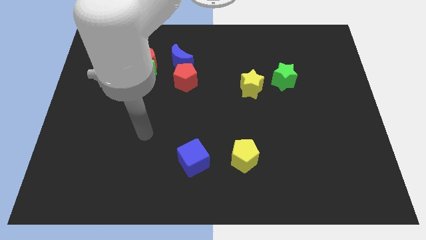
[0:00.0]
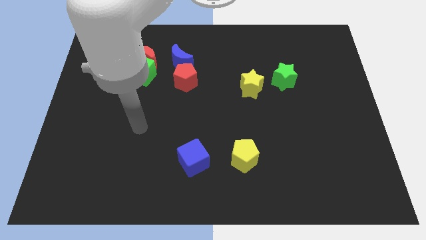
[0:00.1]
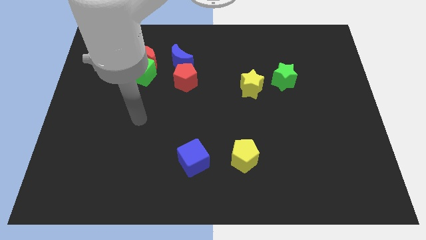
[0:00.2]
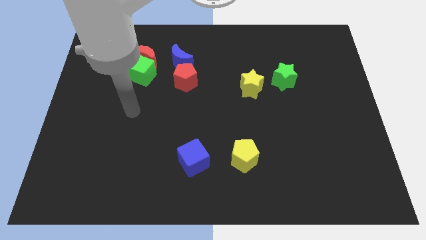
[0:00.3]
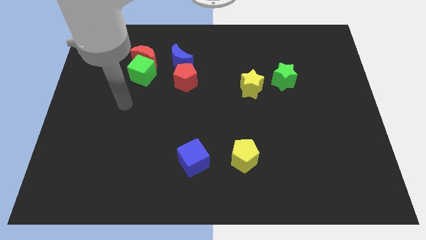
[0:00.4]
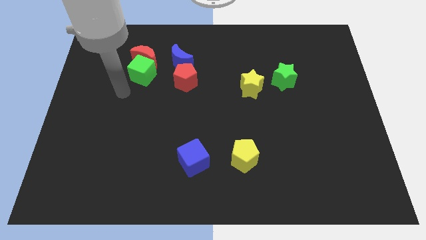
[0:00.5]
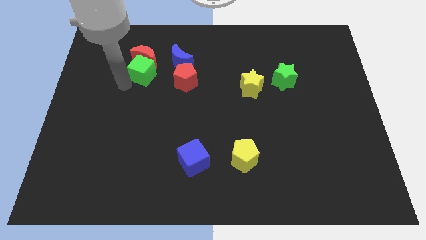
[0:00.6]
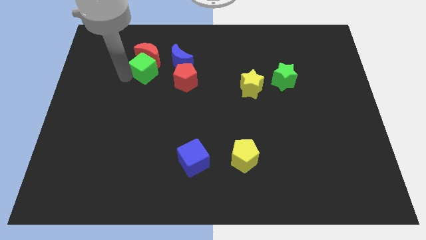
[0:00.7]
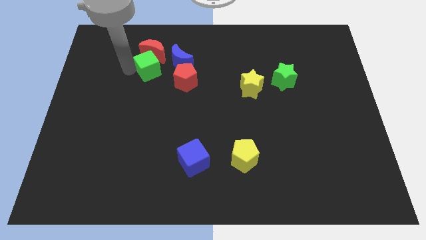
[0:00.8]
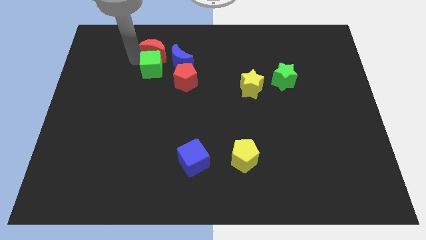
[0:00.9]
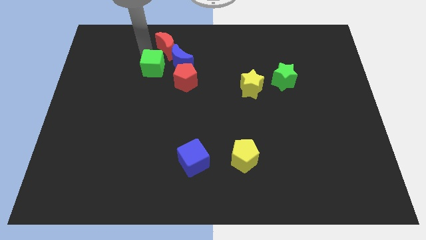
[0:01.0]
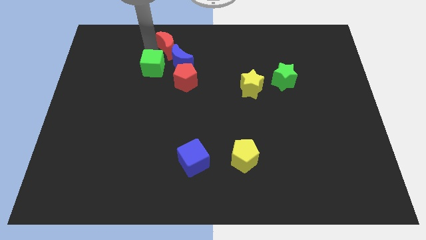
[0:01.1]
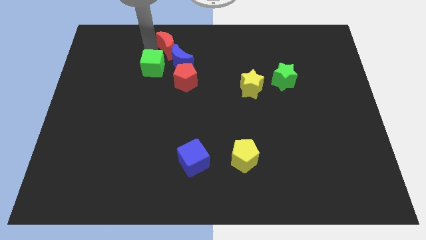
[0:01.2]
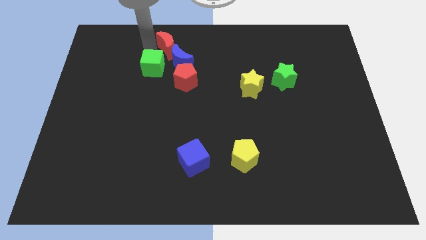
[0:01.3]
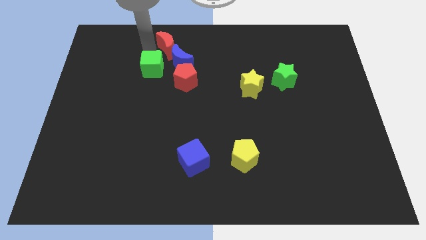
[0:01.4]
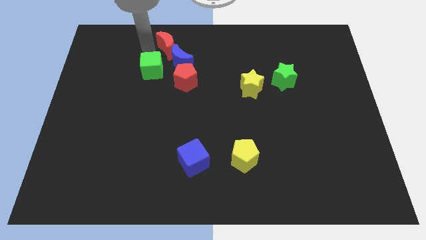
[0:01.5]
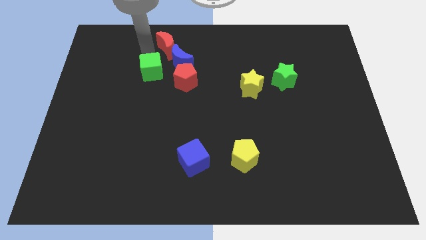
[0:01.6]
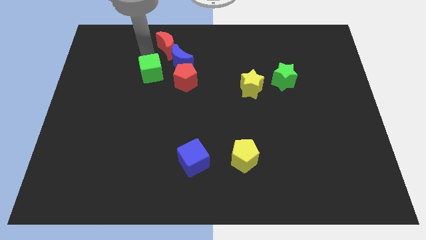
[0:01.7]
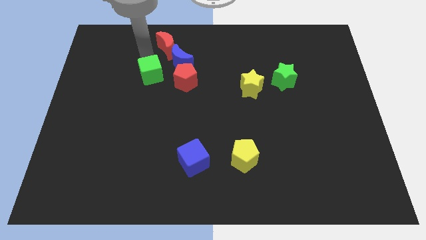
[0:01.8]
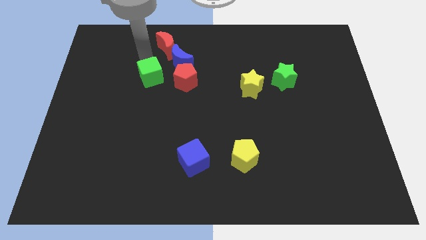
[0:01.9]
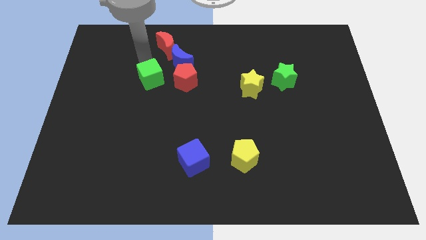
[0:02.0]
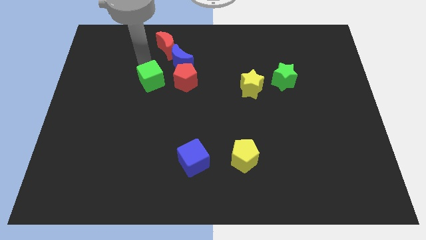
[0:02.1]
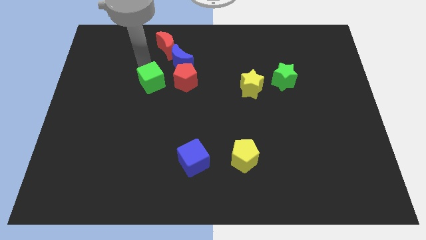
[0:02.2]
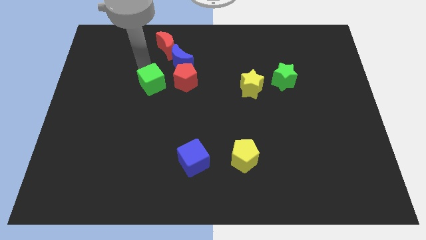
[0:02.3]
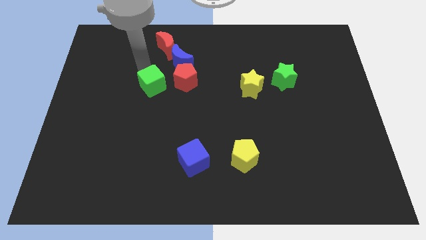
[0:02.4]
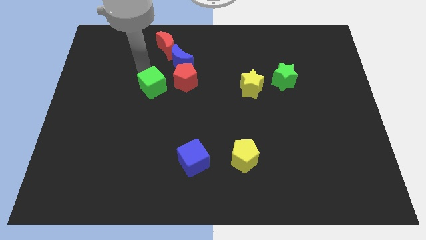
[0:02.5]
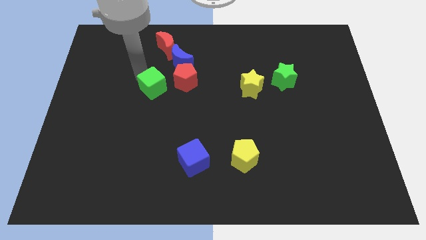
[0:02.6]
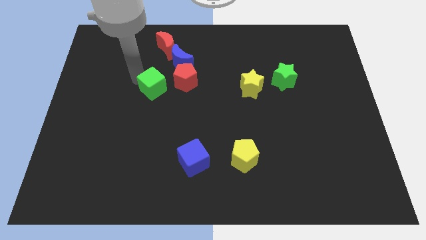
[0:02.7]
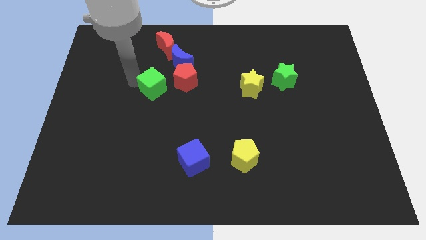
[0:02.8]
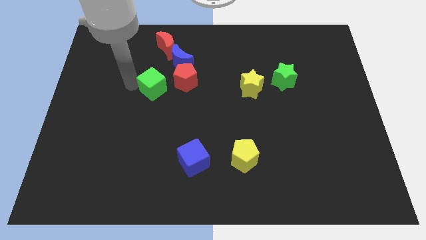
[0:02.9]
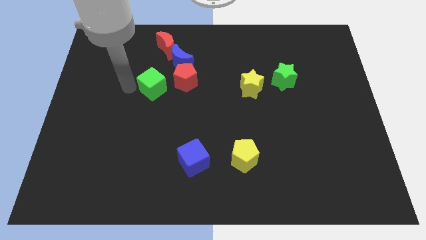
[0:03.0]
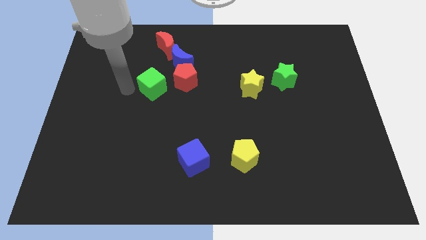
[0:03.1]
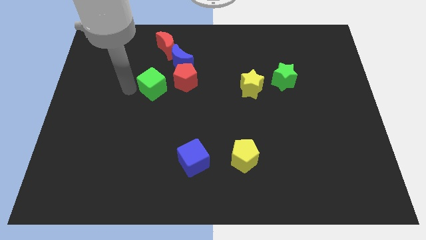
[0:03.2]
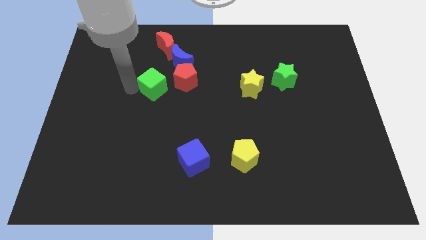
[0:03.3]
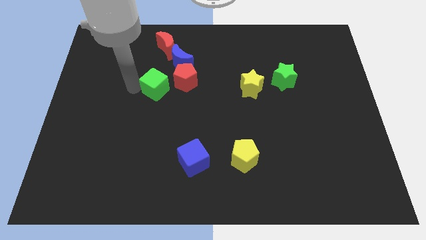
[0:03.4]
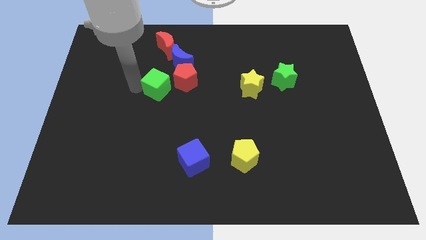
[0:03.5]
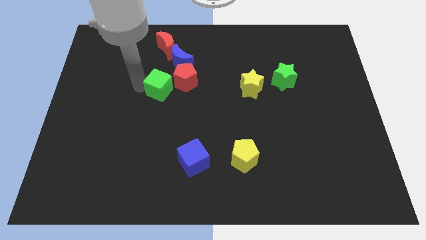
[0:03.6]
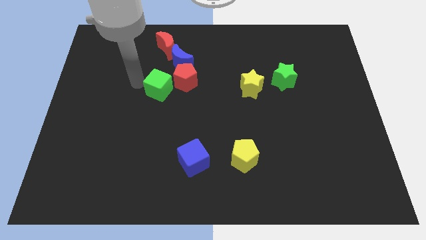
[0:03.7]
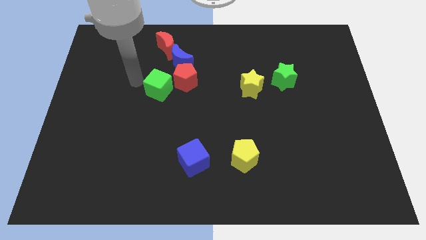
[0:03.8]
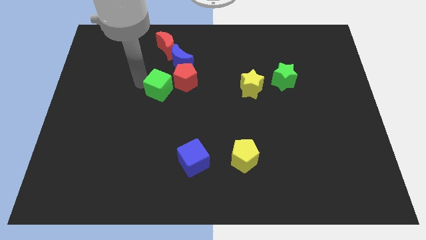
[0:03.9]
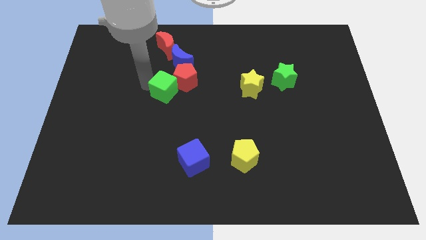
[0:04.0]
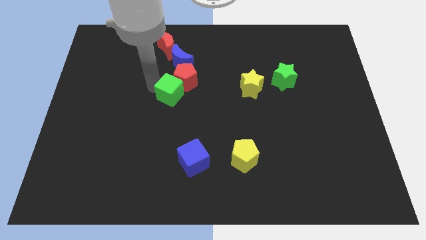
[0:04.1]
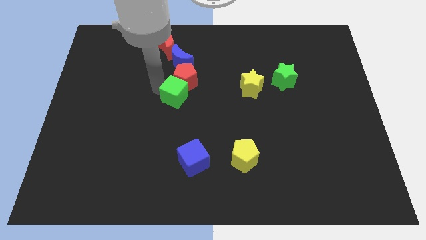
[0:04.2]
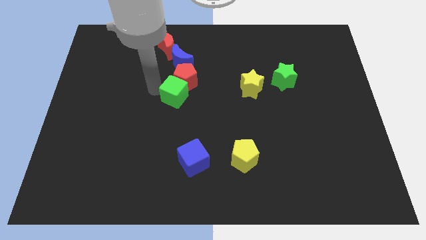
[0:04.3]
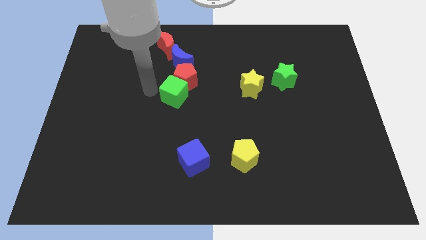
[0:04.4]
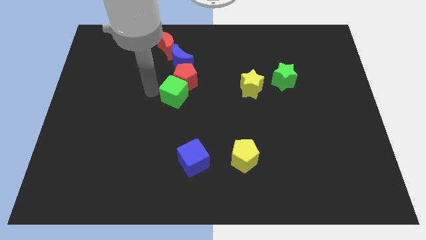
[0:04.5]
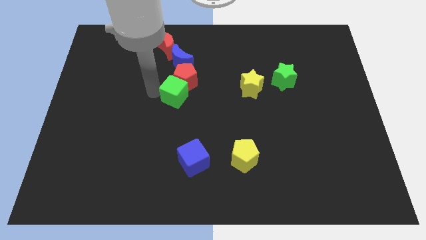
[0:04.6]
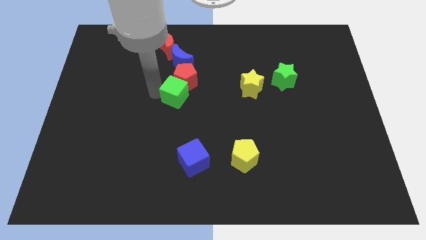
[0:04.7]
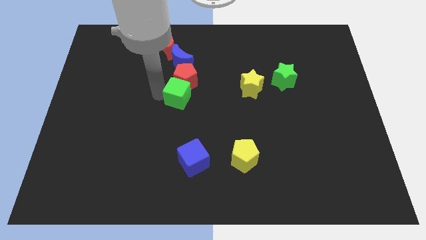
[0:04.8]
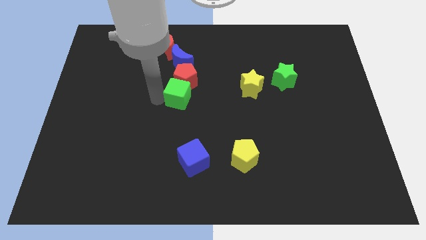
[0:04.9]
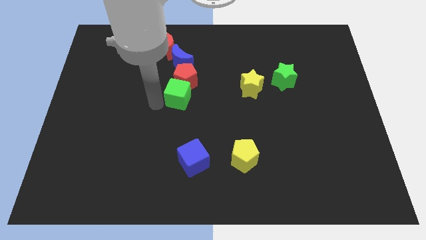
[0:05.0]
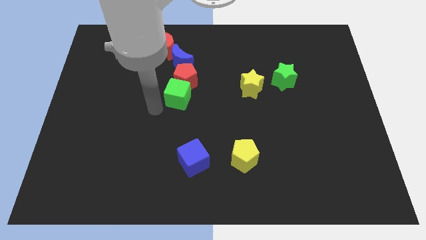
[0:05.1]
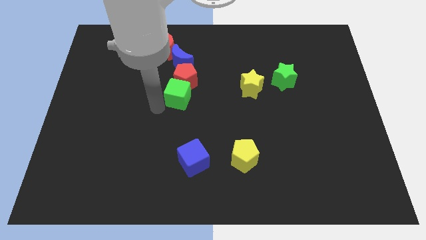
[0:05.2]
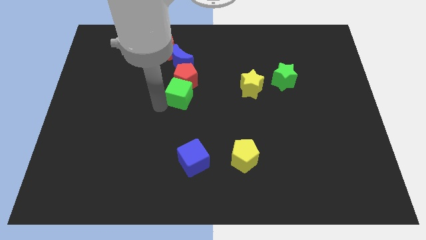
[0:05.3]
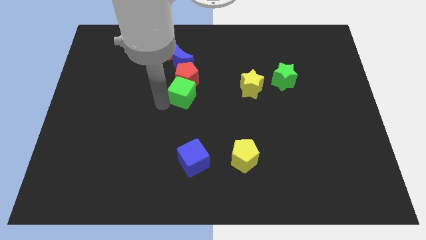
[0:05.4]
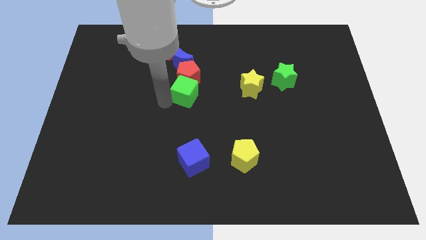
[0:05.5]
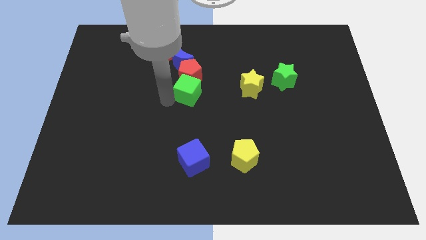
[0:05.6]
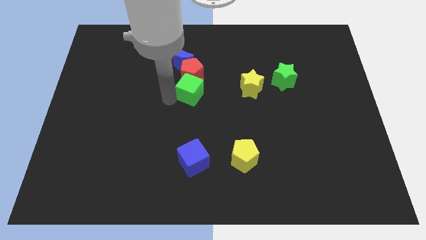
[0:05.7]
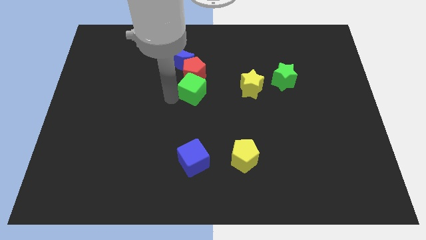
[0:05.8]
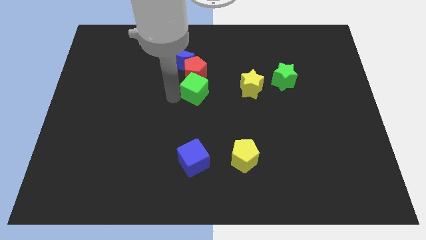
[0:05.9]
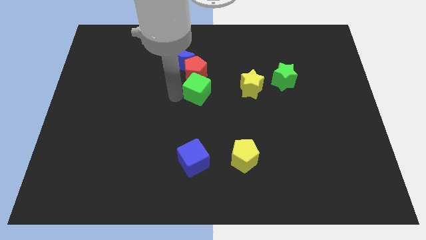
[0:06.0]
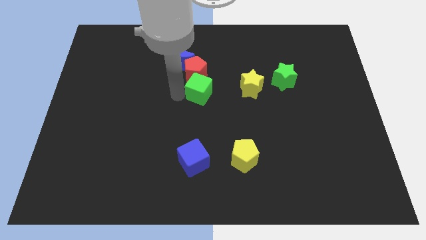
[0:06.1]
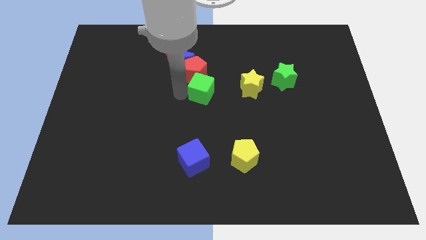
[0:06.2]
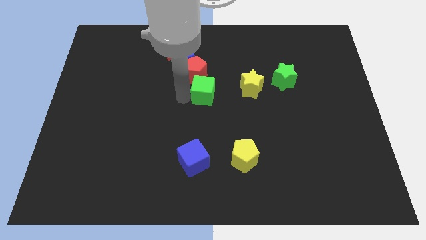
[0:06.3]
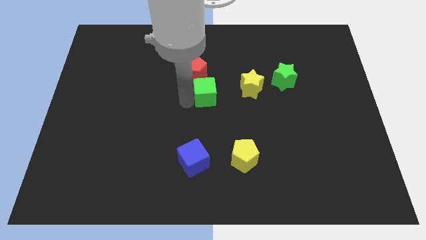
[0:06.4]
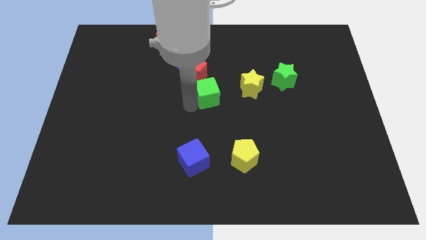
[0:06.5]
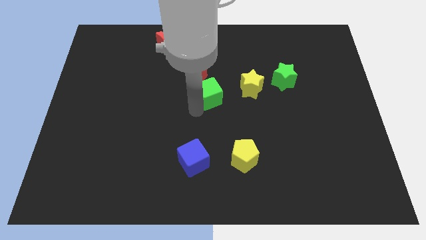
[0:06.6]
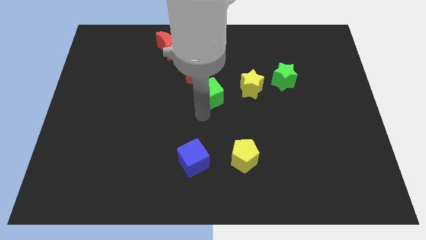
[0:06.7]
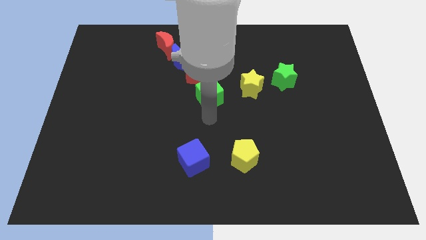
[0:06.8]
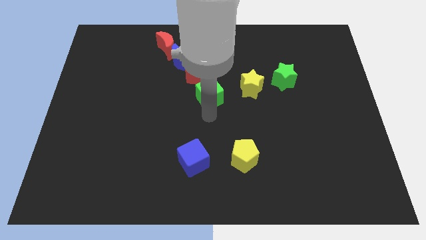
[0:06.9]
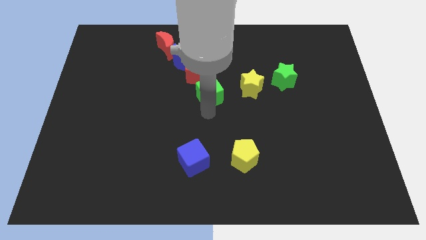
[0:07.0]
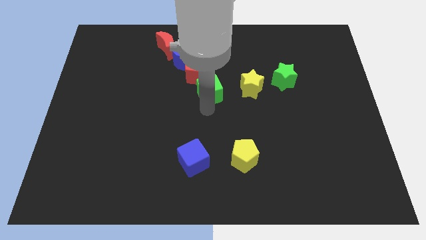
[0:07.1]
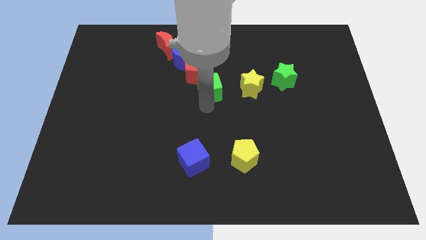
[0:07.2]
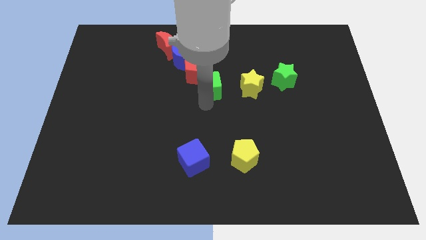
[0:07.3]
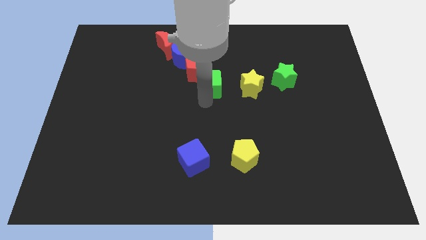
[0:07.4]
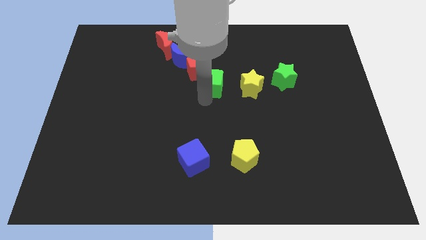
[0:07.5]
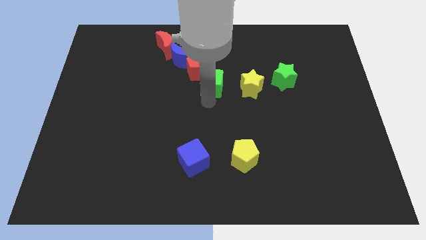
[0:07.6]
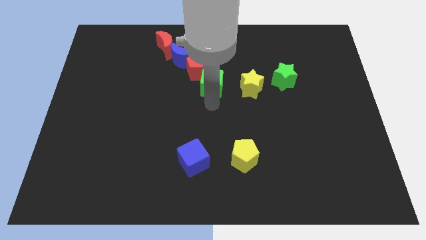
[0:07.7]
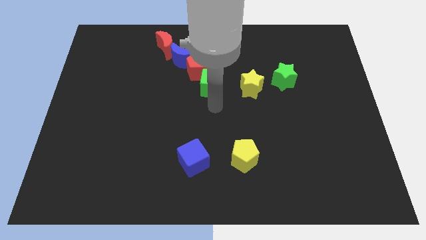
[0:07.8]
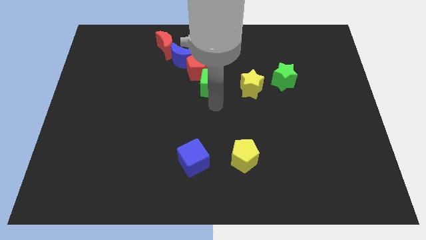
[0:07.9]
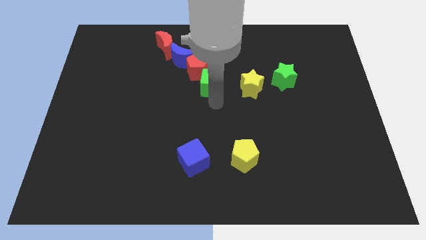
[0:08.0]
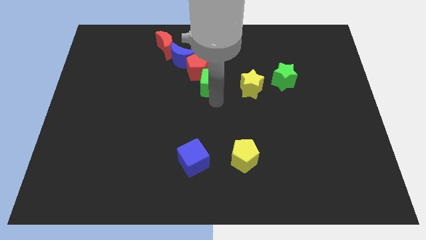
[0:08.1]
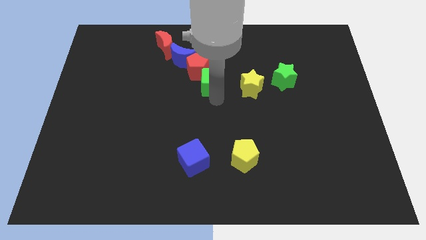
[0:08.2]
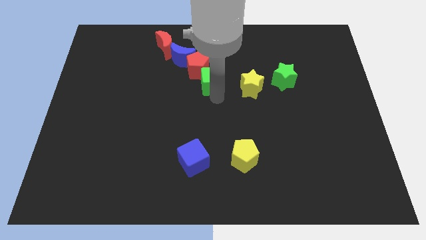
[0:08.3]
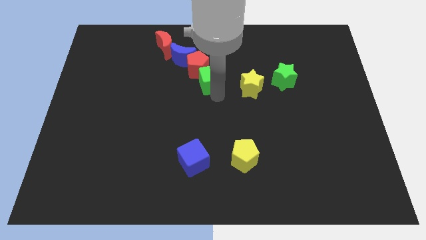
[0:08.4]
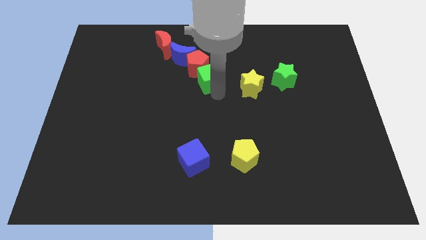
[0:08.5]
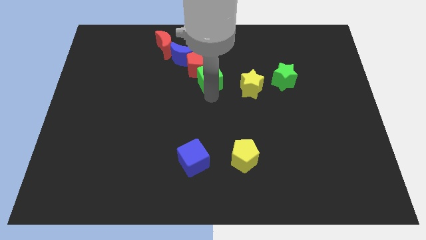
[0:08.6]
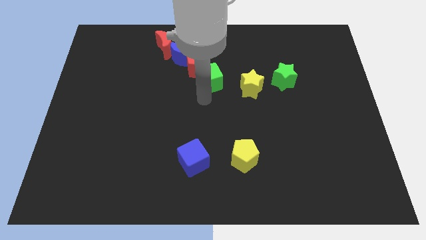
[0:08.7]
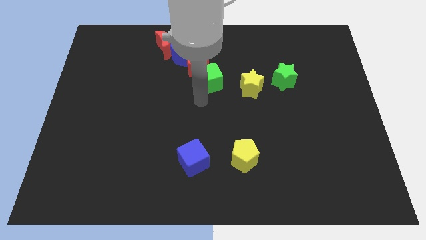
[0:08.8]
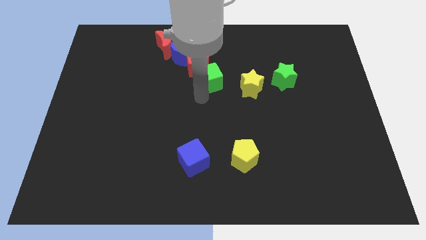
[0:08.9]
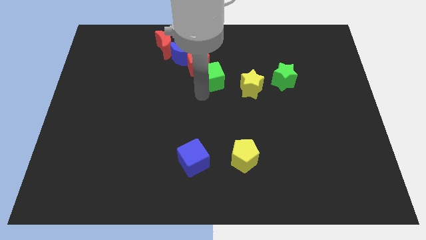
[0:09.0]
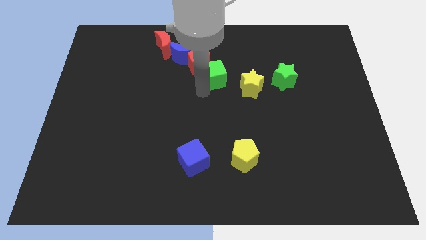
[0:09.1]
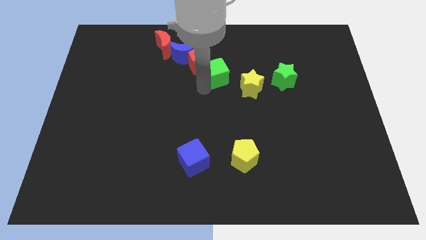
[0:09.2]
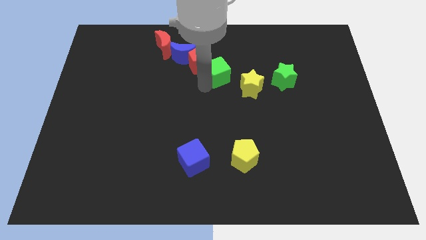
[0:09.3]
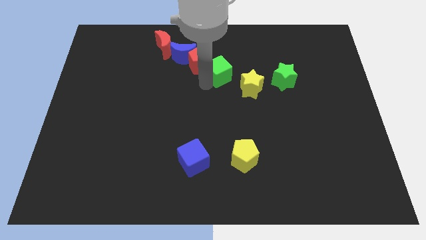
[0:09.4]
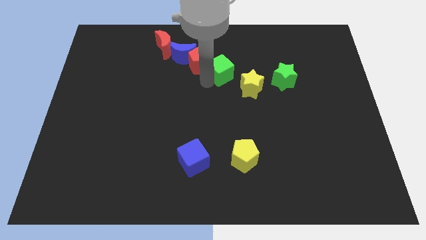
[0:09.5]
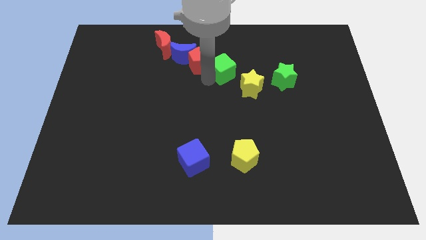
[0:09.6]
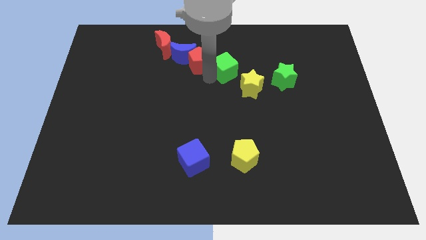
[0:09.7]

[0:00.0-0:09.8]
slide the green cube just right of the blue moon
